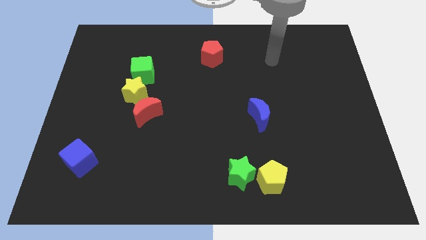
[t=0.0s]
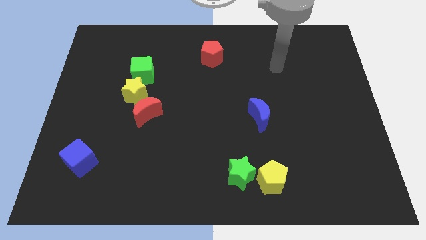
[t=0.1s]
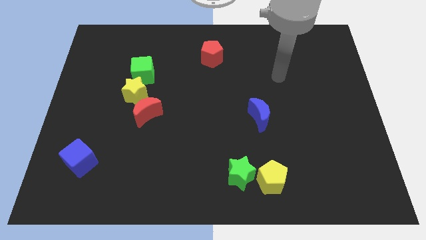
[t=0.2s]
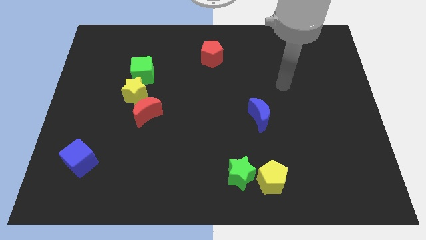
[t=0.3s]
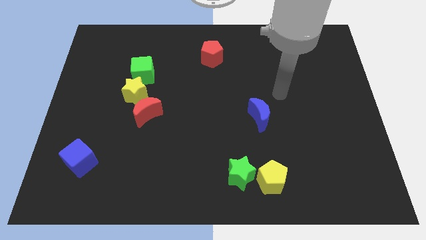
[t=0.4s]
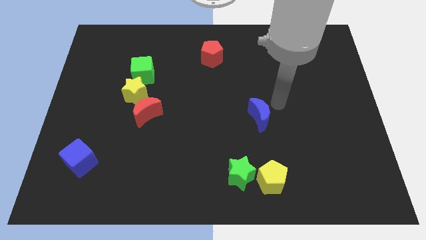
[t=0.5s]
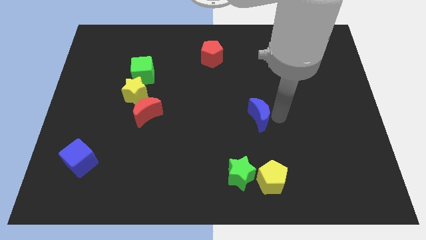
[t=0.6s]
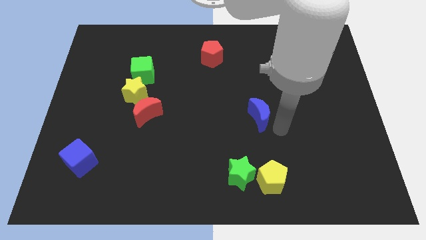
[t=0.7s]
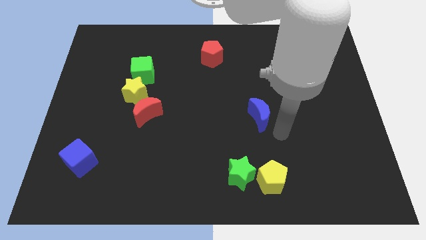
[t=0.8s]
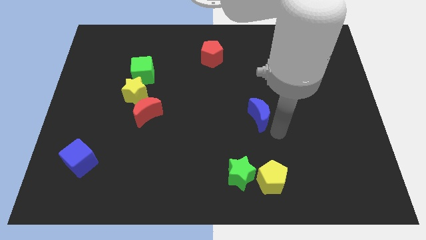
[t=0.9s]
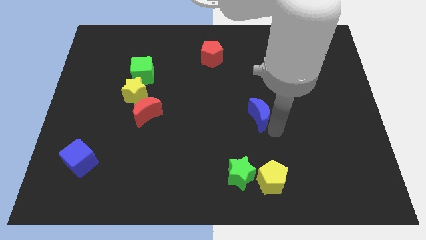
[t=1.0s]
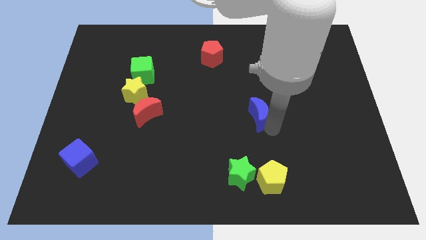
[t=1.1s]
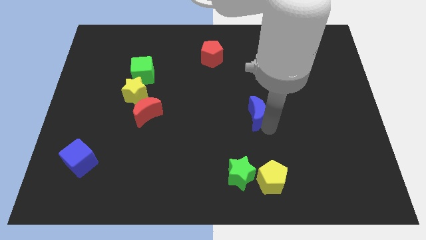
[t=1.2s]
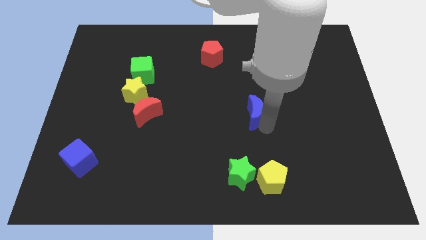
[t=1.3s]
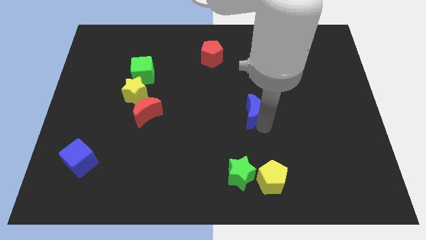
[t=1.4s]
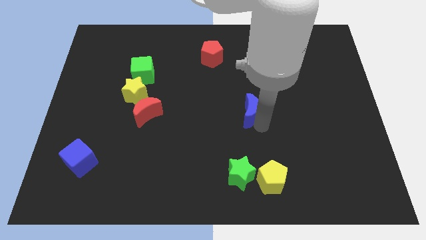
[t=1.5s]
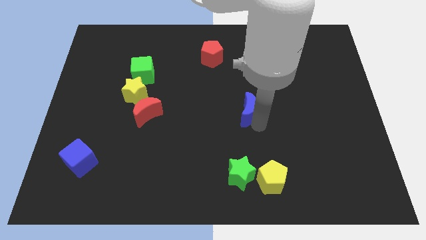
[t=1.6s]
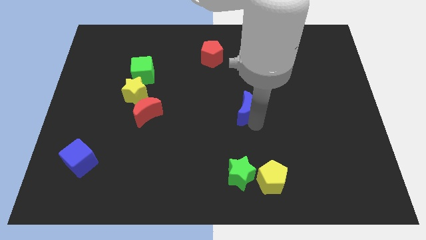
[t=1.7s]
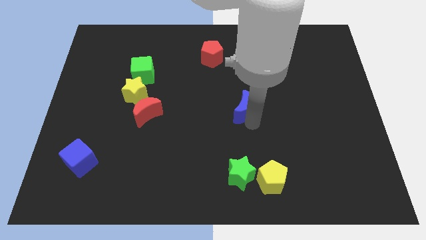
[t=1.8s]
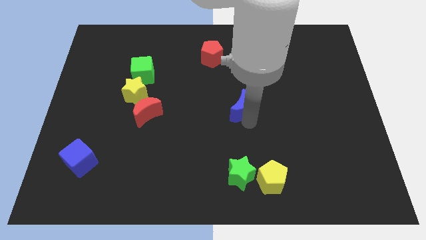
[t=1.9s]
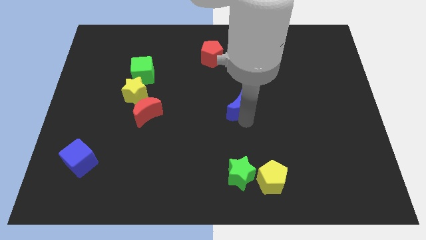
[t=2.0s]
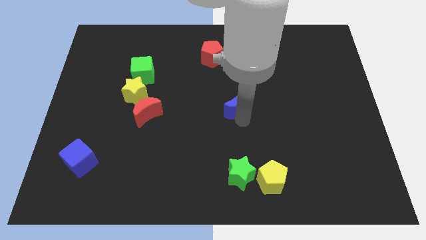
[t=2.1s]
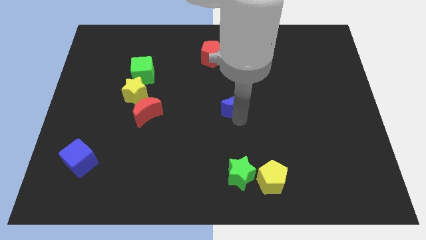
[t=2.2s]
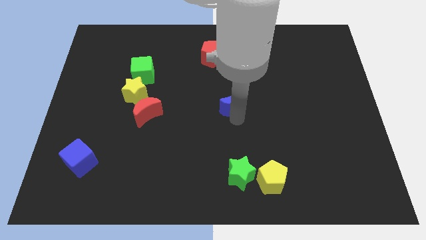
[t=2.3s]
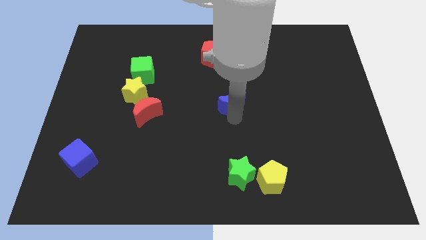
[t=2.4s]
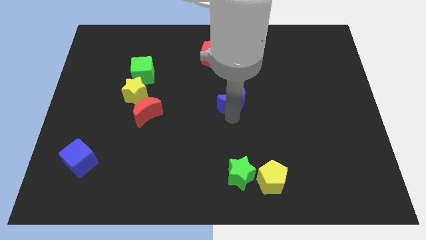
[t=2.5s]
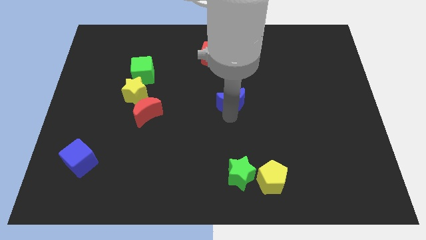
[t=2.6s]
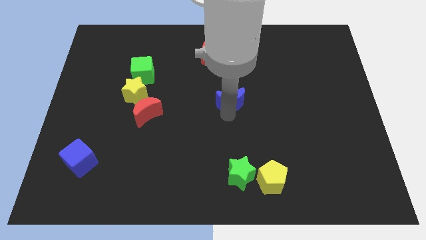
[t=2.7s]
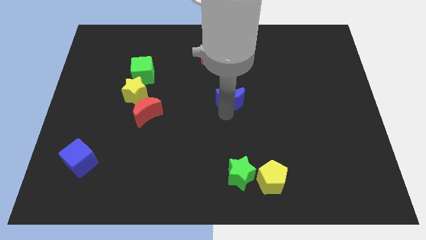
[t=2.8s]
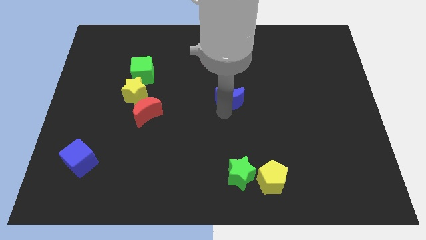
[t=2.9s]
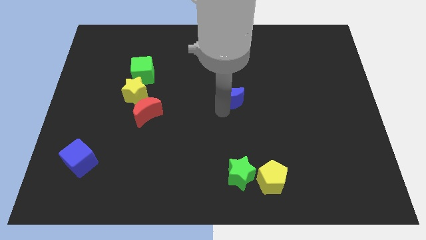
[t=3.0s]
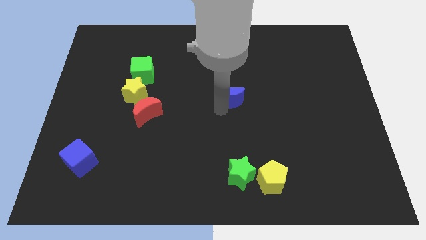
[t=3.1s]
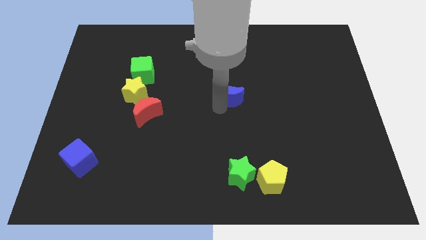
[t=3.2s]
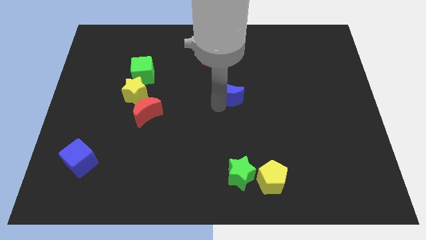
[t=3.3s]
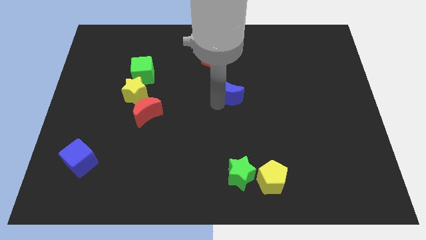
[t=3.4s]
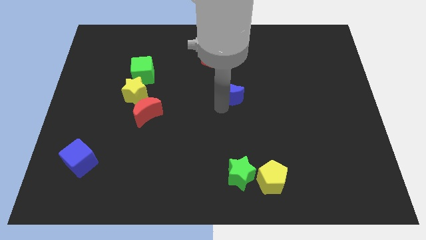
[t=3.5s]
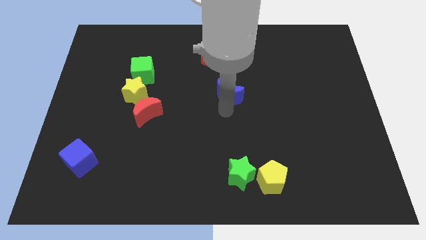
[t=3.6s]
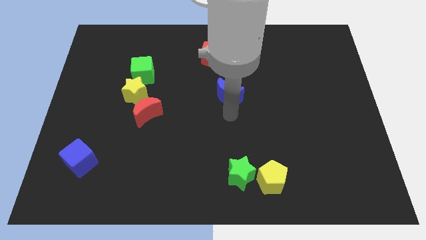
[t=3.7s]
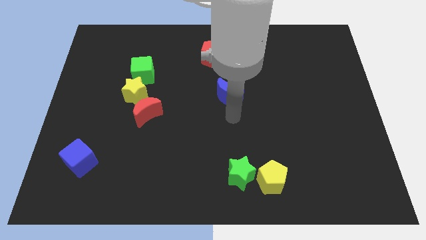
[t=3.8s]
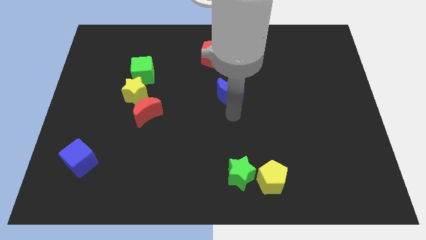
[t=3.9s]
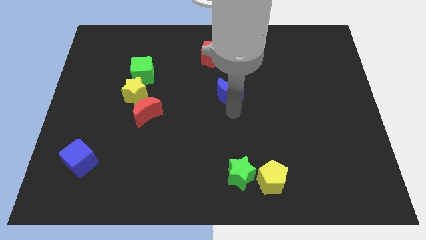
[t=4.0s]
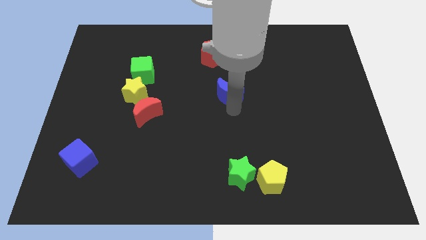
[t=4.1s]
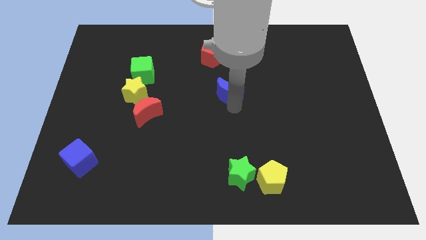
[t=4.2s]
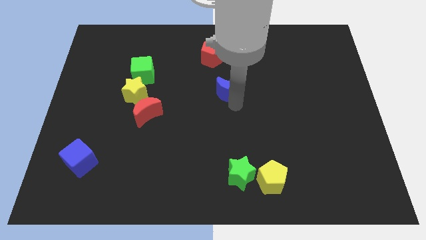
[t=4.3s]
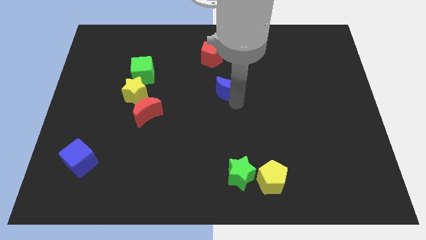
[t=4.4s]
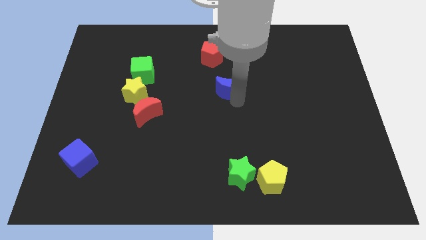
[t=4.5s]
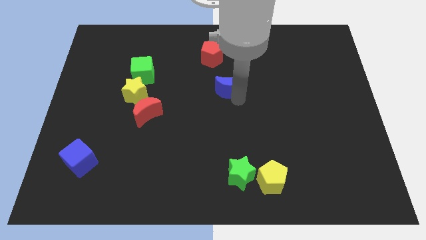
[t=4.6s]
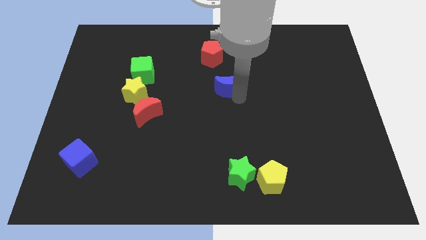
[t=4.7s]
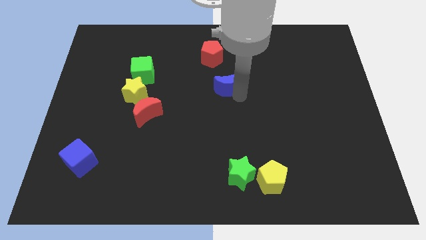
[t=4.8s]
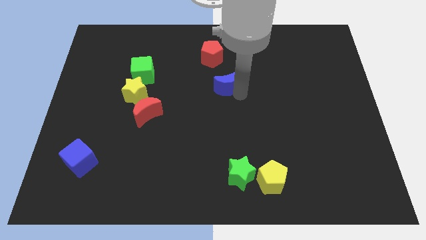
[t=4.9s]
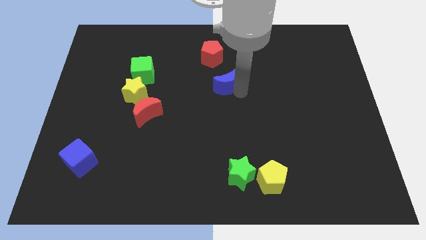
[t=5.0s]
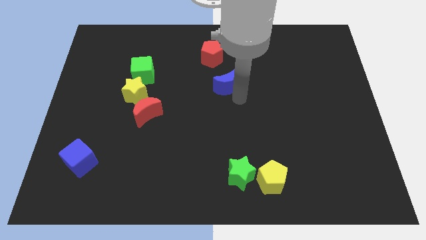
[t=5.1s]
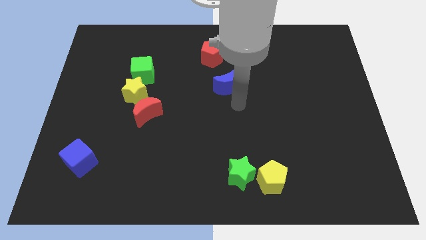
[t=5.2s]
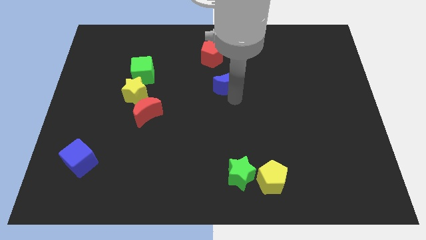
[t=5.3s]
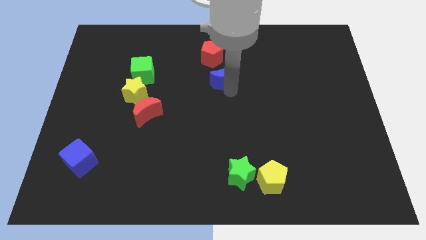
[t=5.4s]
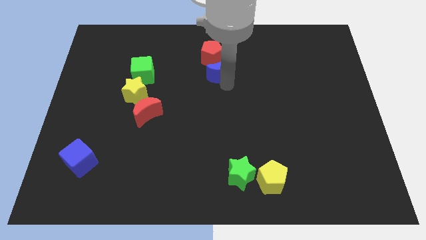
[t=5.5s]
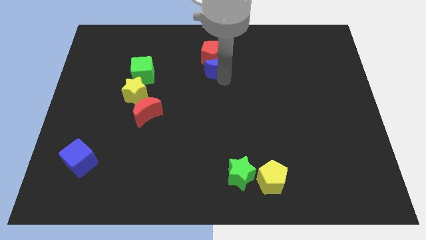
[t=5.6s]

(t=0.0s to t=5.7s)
push the blue moon to the red pentagon

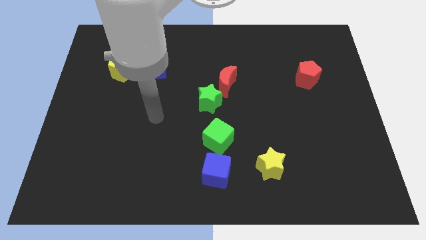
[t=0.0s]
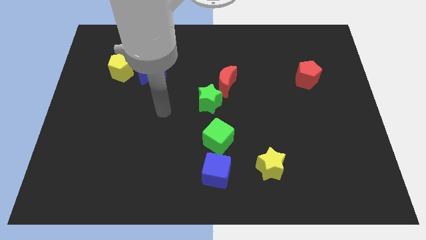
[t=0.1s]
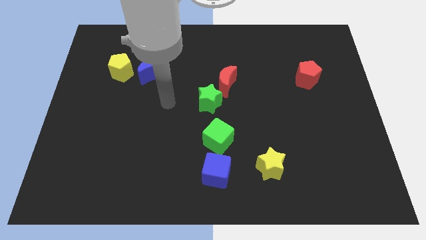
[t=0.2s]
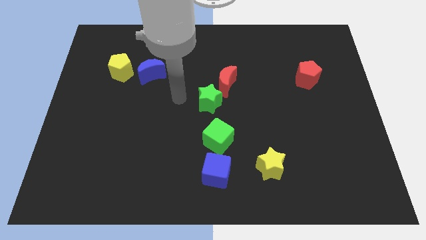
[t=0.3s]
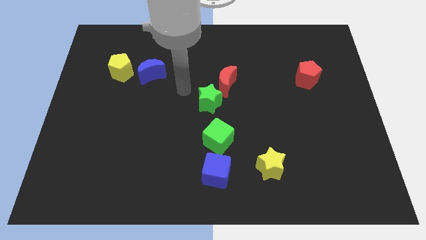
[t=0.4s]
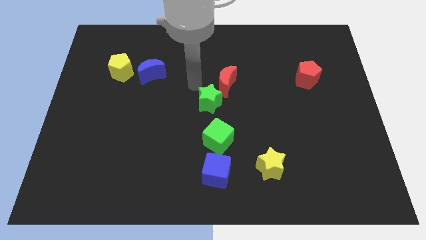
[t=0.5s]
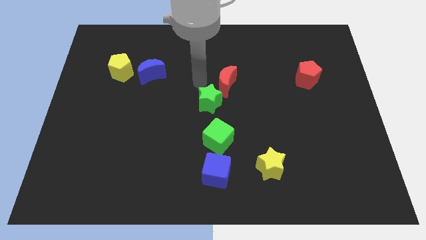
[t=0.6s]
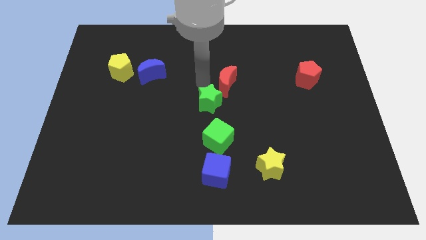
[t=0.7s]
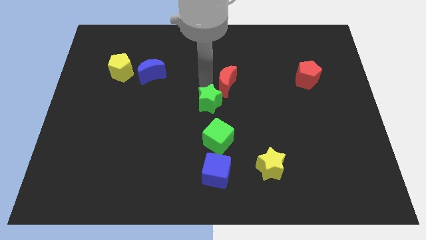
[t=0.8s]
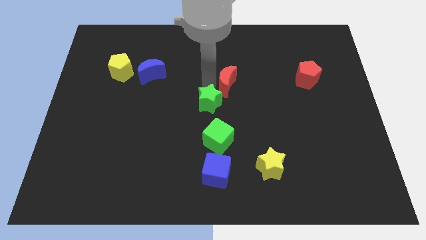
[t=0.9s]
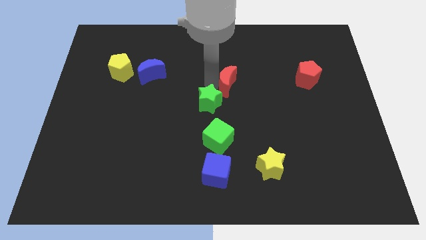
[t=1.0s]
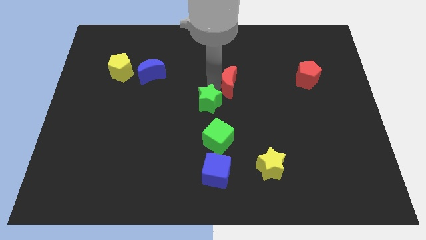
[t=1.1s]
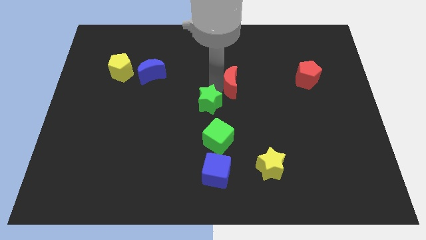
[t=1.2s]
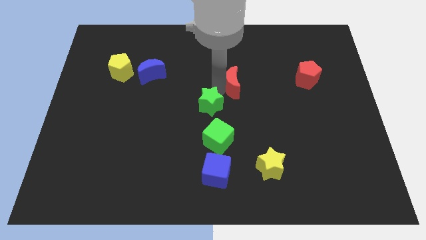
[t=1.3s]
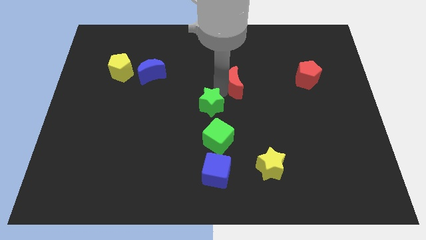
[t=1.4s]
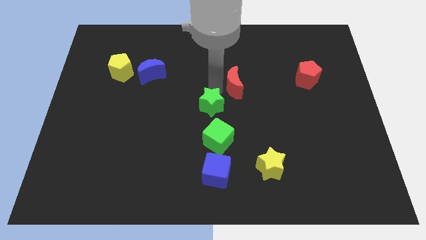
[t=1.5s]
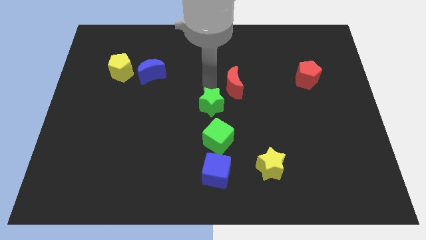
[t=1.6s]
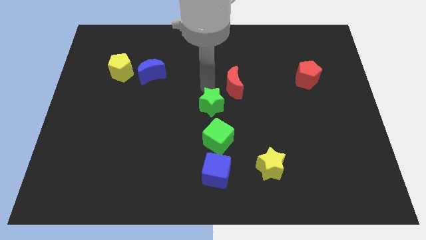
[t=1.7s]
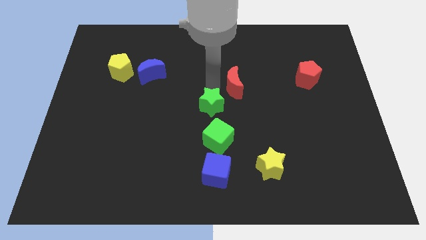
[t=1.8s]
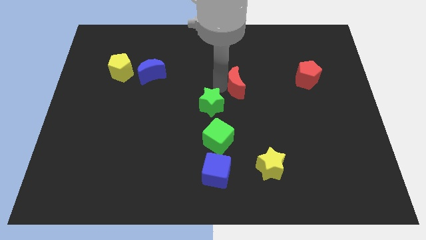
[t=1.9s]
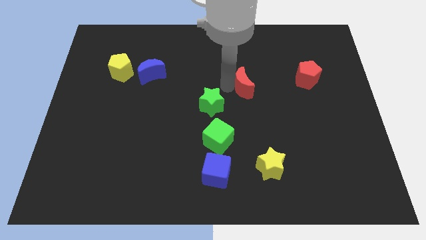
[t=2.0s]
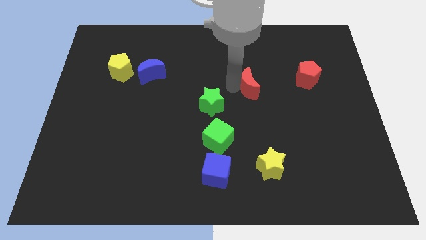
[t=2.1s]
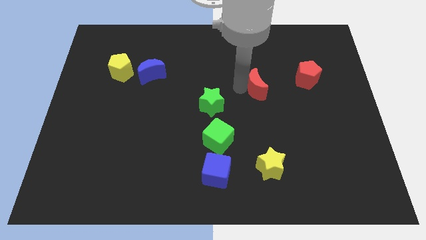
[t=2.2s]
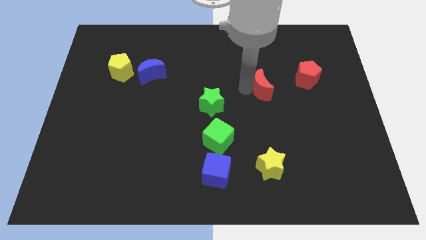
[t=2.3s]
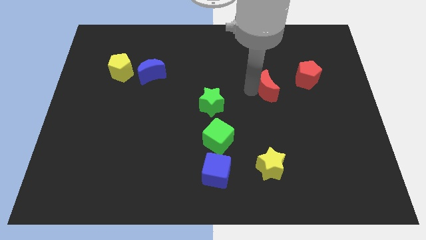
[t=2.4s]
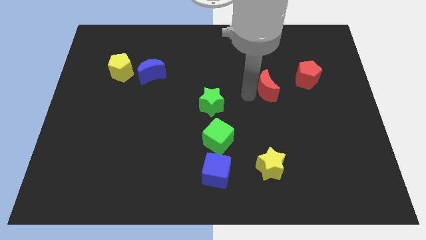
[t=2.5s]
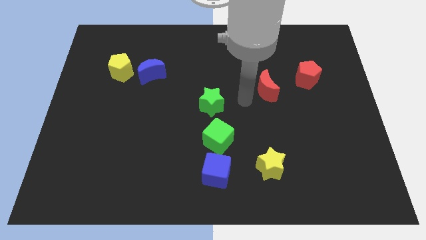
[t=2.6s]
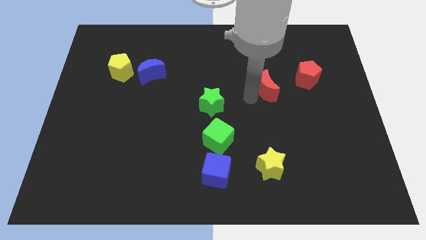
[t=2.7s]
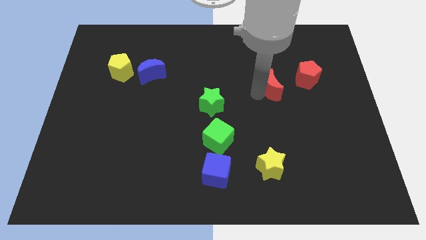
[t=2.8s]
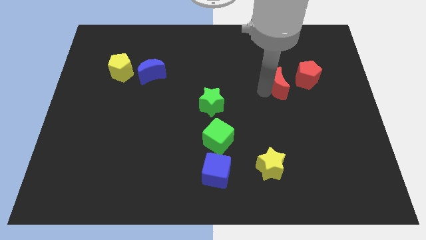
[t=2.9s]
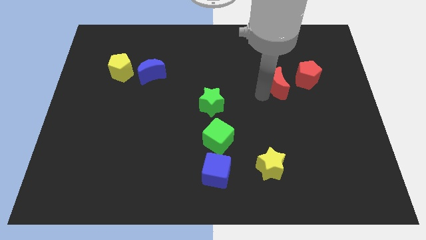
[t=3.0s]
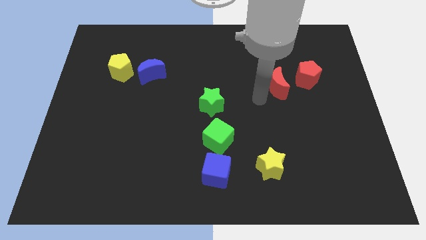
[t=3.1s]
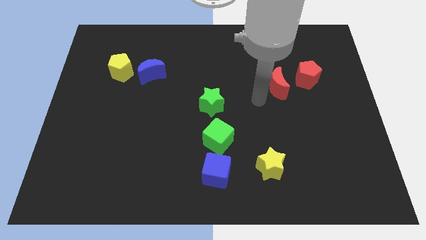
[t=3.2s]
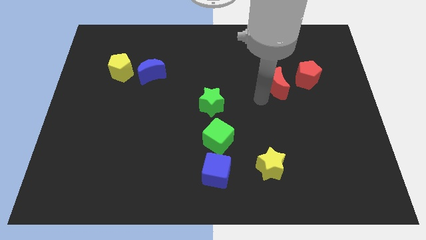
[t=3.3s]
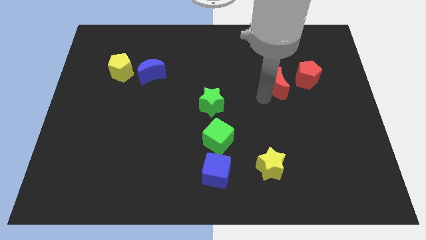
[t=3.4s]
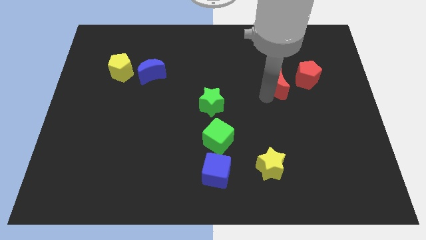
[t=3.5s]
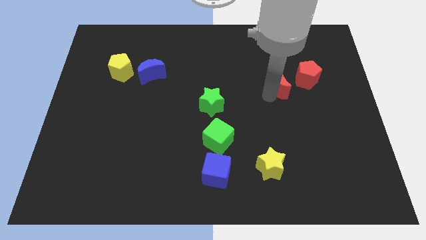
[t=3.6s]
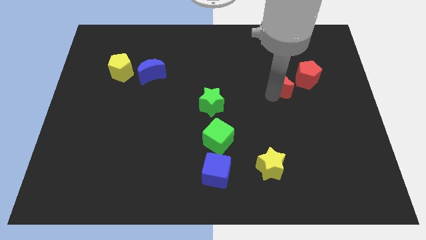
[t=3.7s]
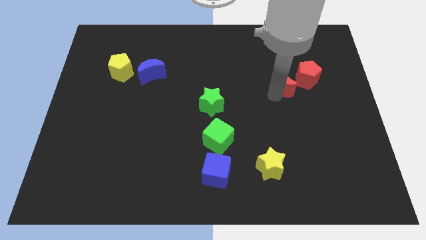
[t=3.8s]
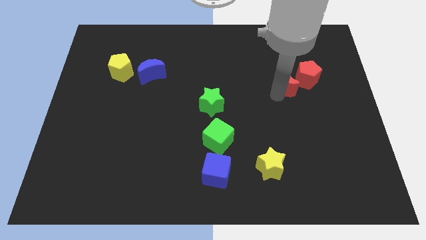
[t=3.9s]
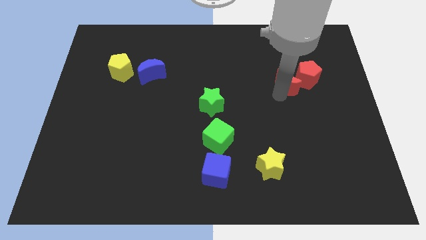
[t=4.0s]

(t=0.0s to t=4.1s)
put the red moon close to the red pentagon
